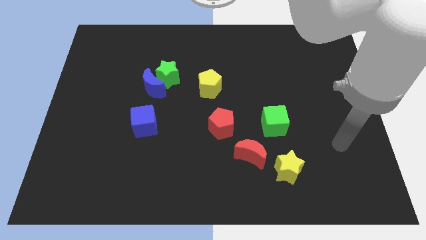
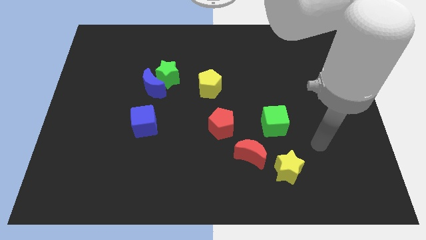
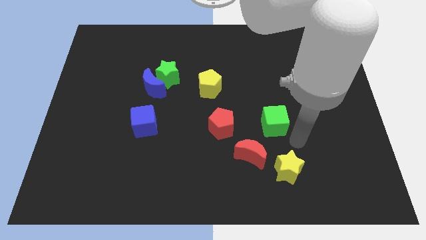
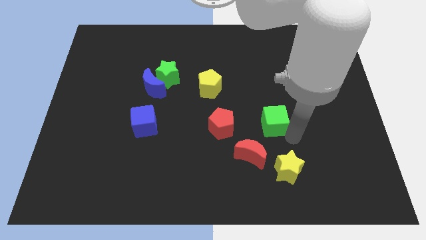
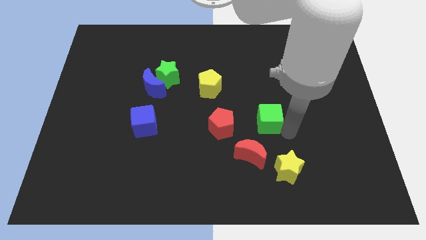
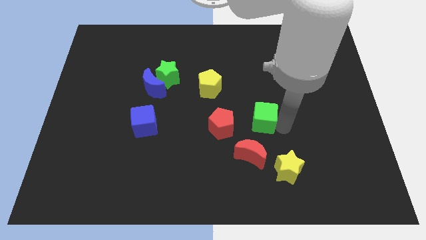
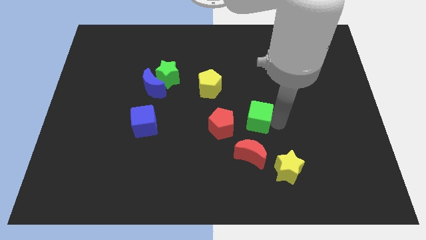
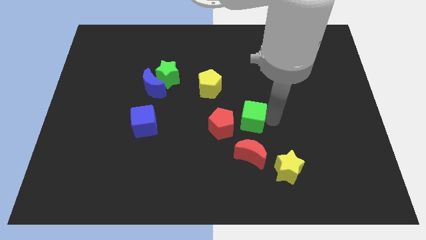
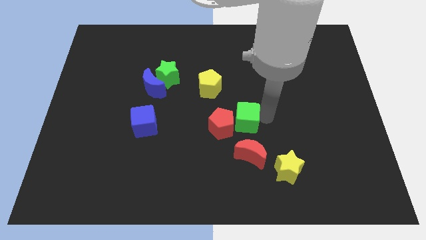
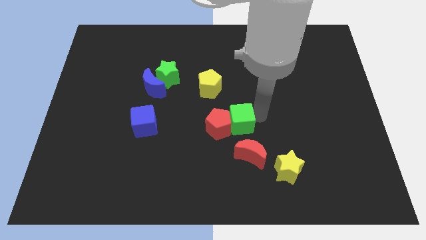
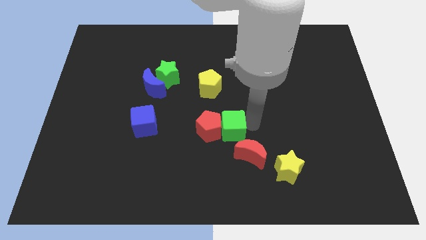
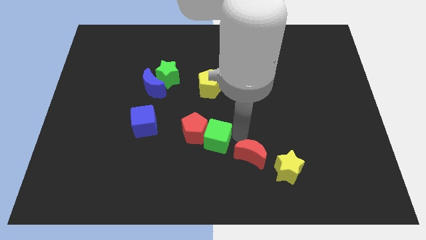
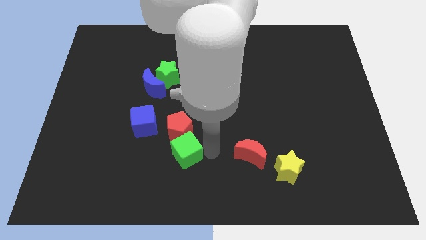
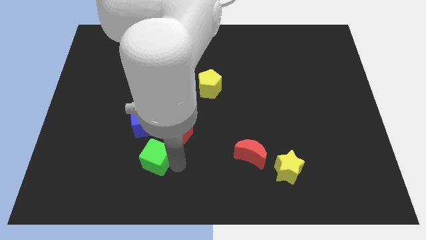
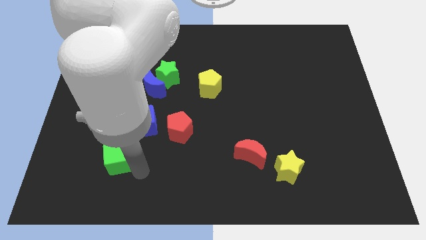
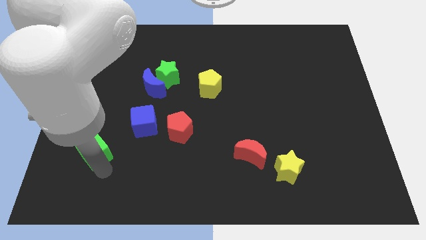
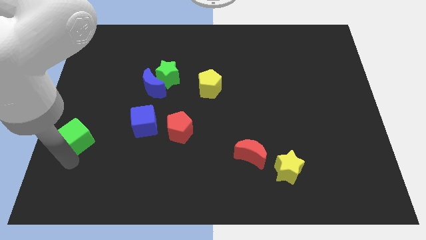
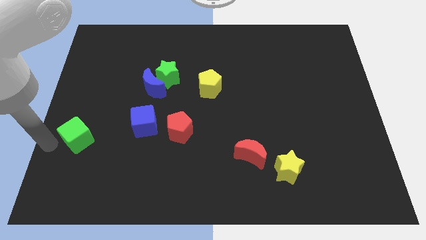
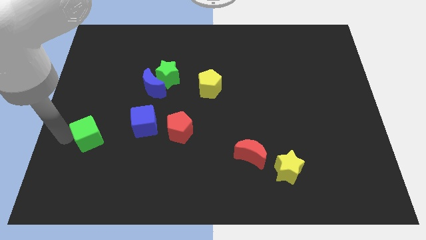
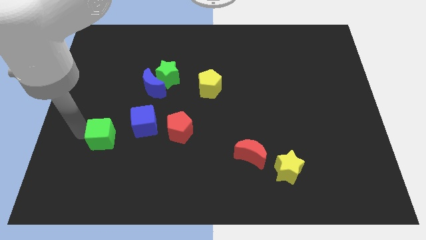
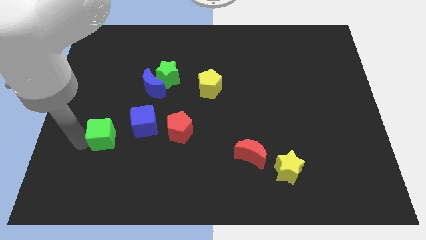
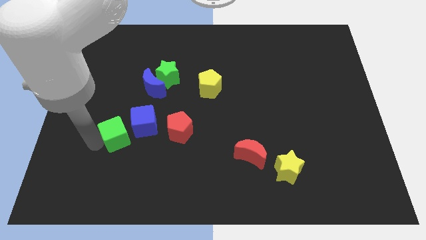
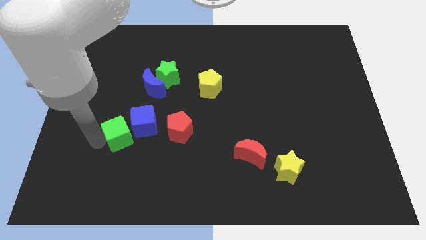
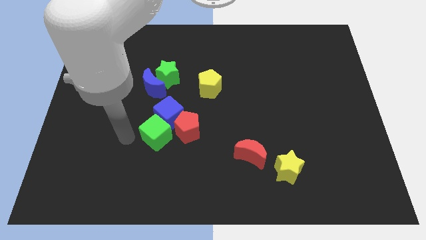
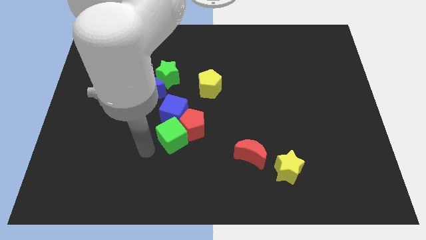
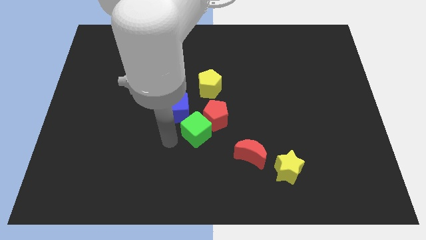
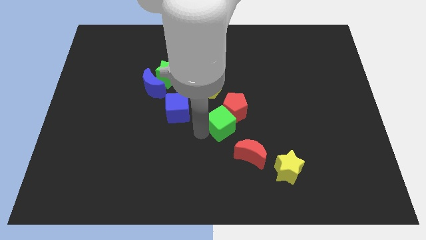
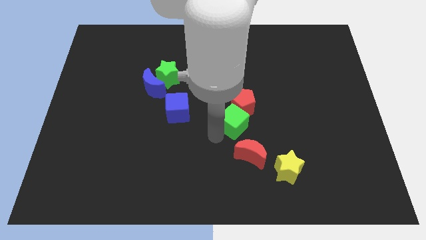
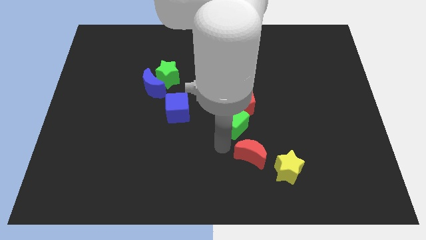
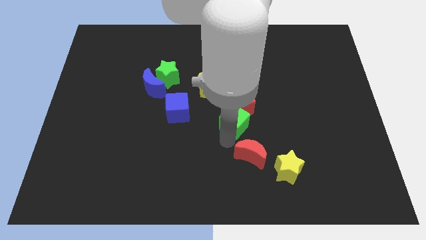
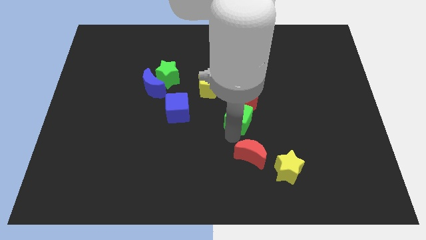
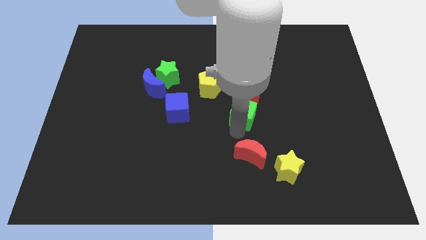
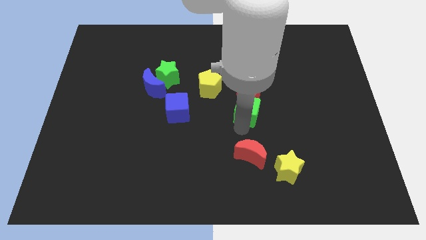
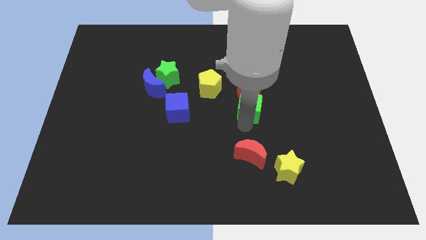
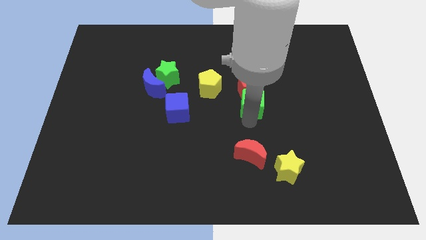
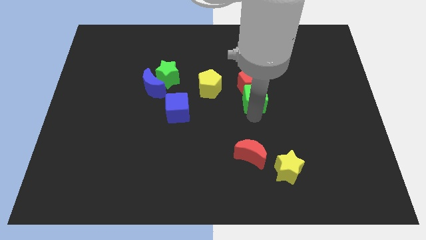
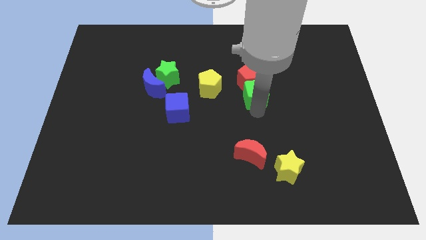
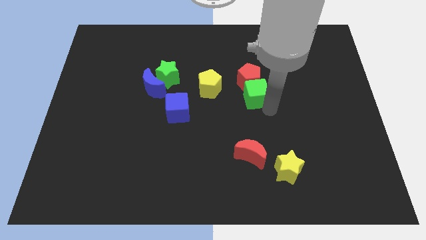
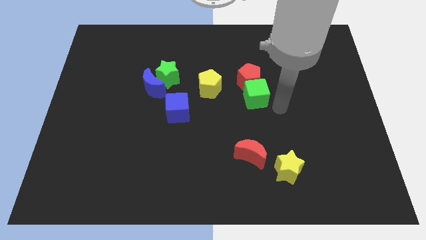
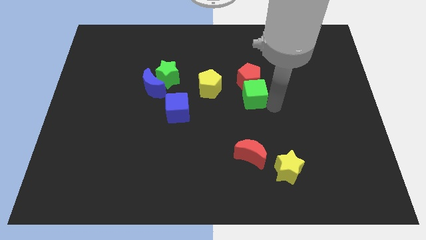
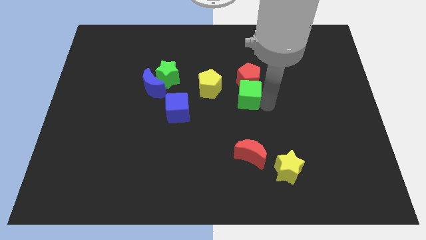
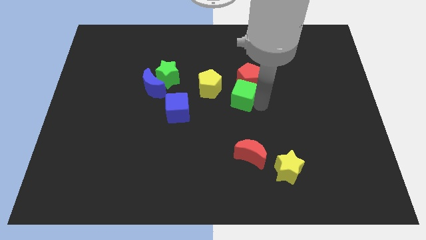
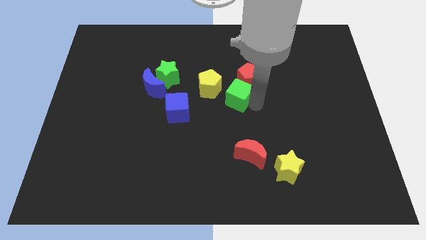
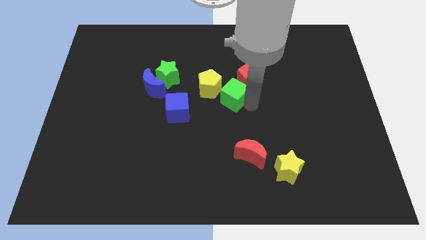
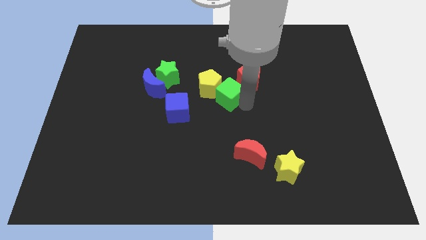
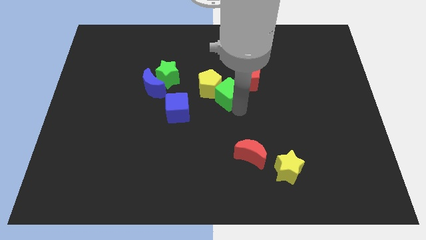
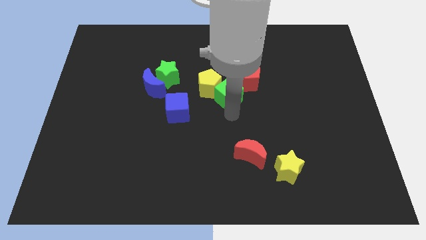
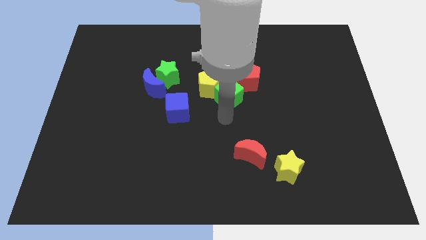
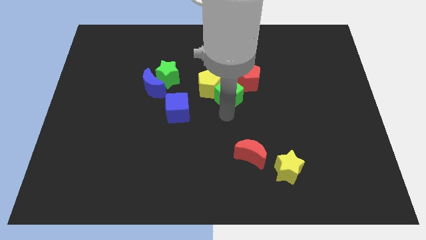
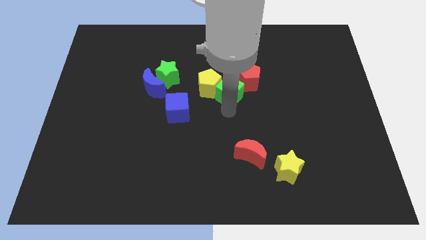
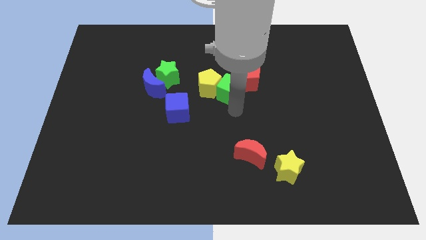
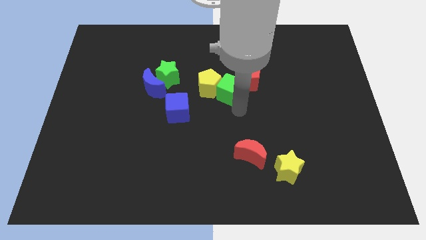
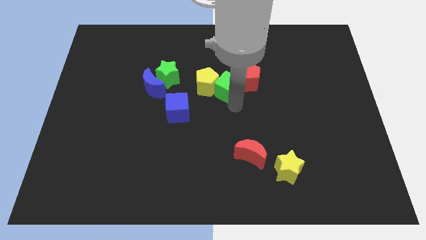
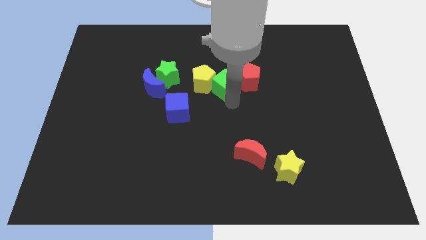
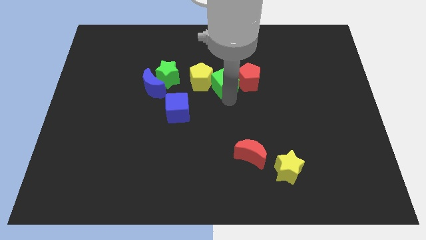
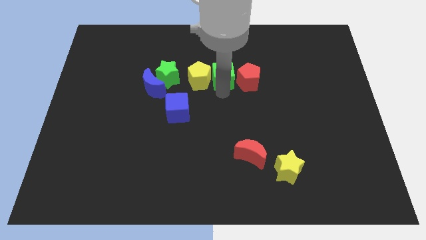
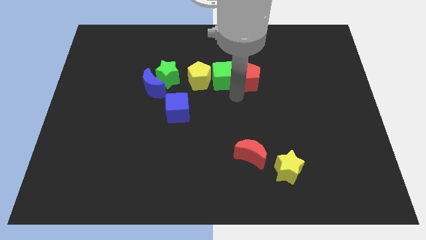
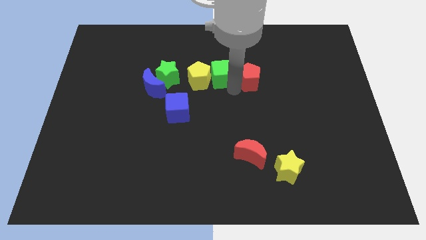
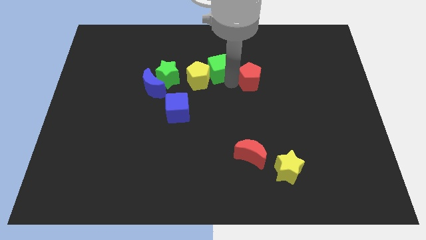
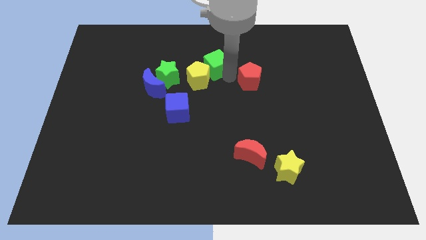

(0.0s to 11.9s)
move the green cube above the yellow pentagon
